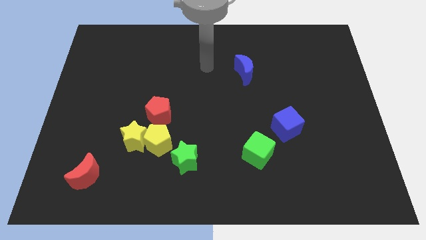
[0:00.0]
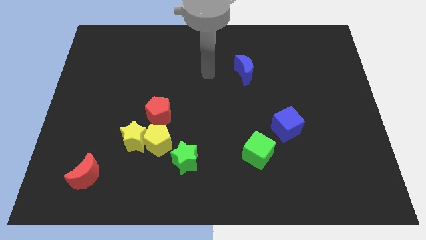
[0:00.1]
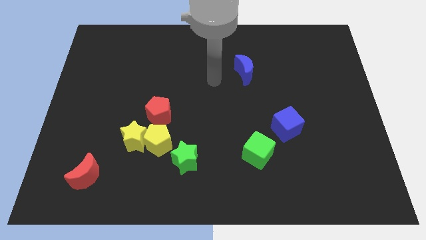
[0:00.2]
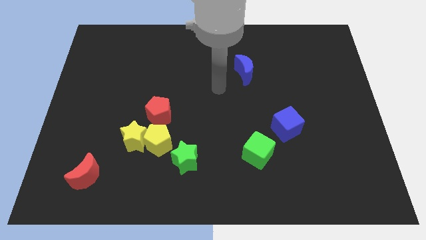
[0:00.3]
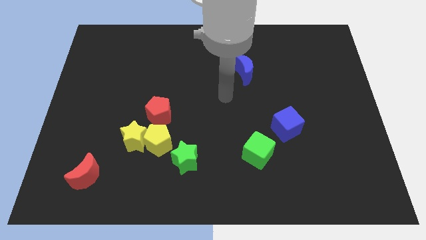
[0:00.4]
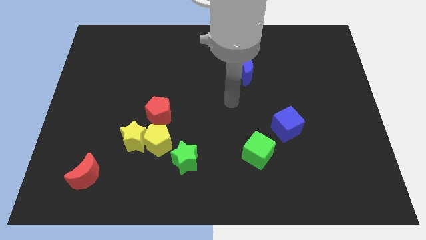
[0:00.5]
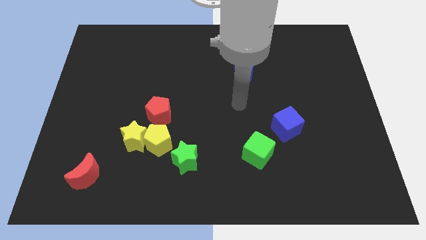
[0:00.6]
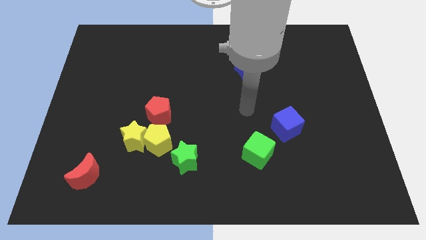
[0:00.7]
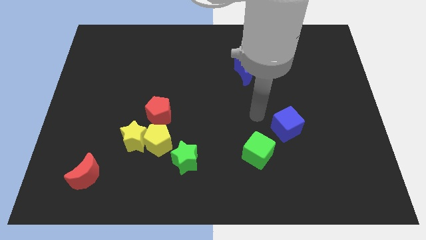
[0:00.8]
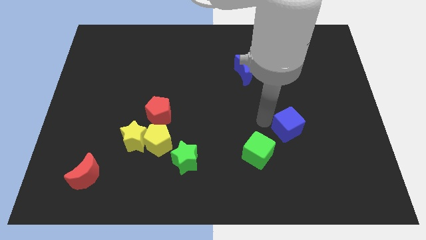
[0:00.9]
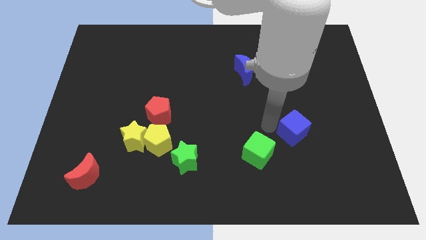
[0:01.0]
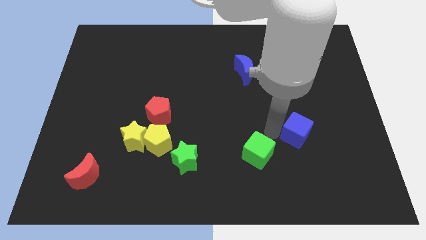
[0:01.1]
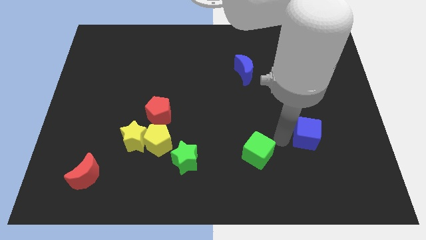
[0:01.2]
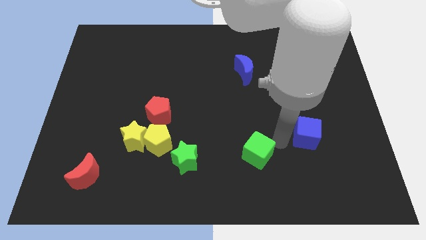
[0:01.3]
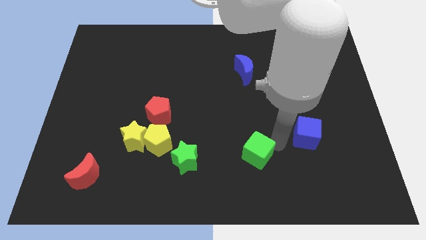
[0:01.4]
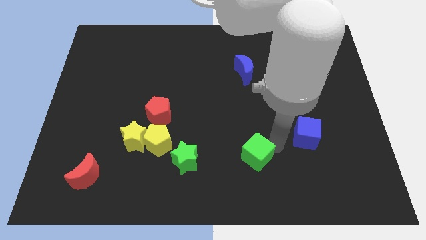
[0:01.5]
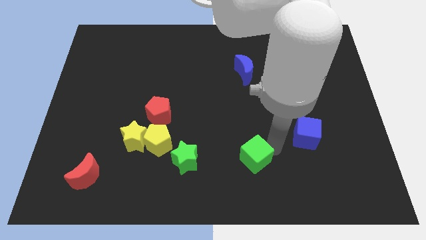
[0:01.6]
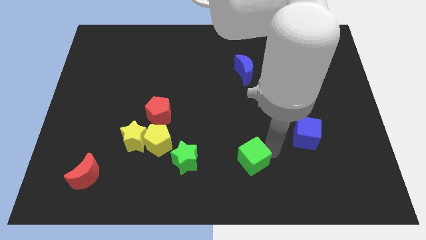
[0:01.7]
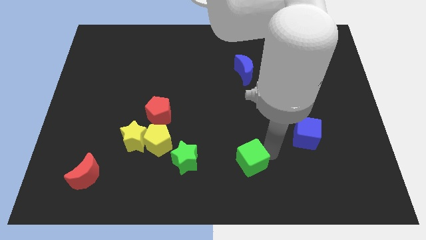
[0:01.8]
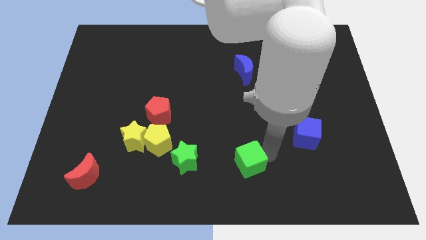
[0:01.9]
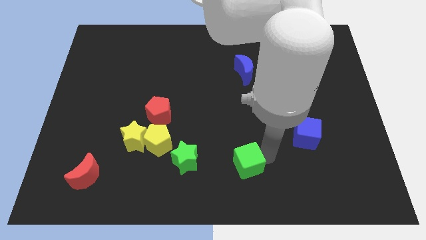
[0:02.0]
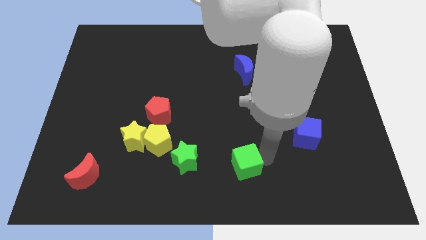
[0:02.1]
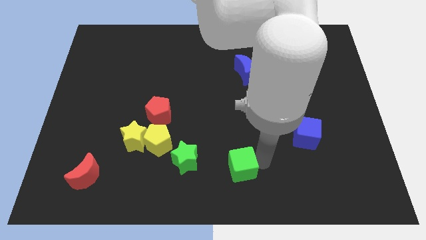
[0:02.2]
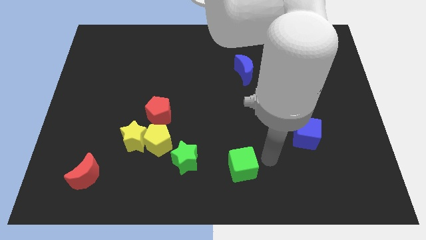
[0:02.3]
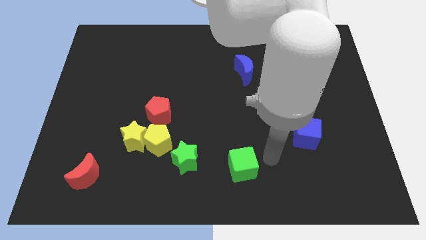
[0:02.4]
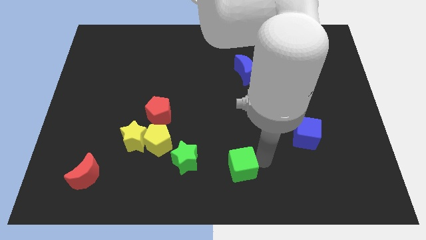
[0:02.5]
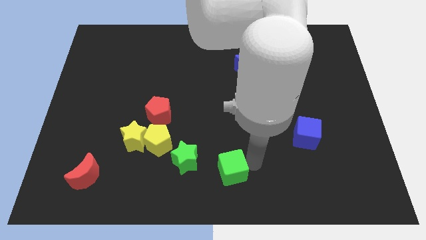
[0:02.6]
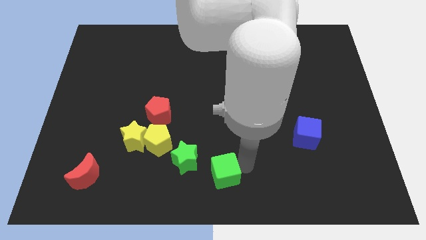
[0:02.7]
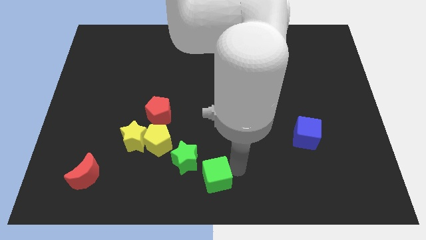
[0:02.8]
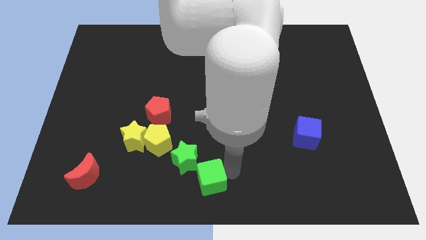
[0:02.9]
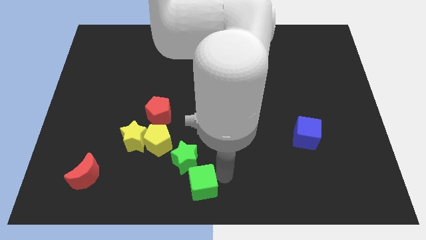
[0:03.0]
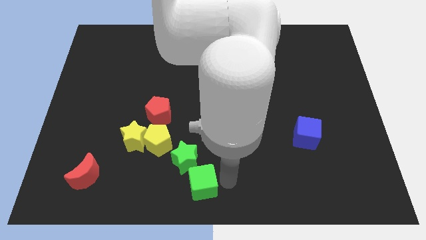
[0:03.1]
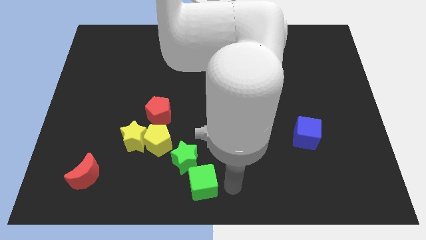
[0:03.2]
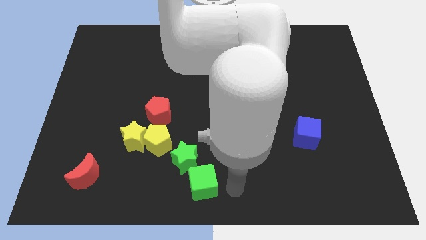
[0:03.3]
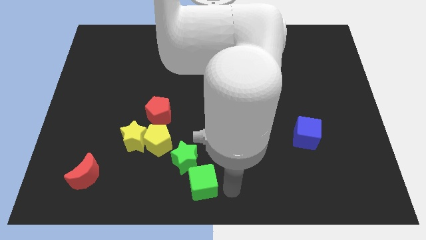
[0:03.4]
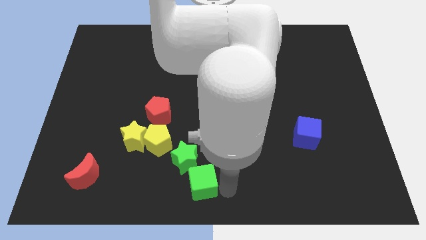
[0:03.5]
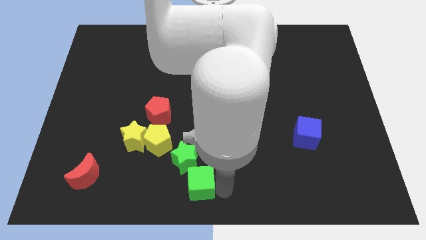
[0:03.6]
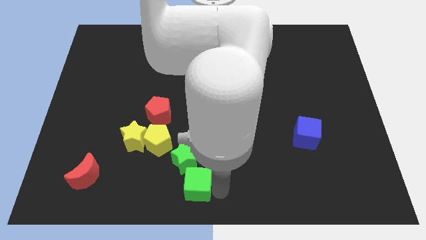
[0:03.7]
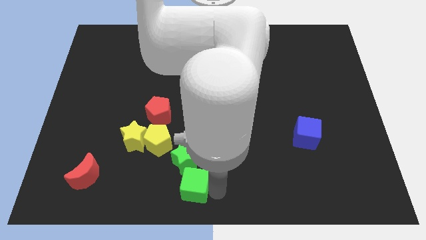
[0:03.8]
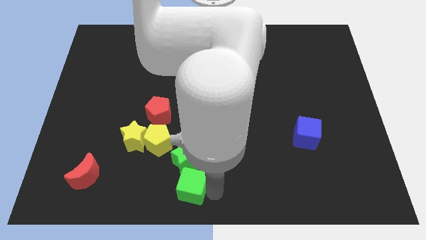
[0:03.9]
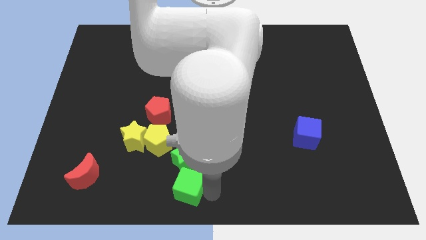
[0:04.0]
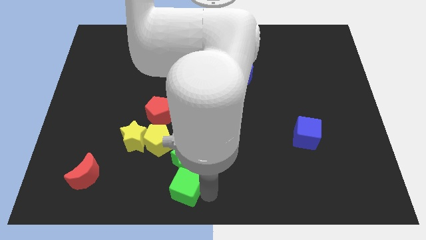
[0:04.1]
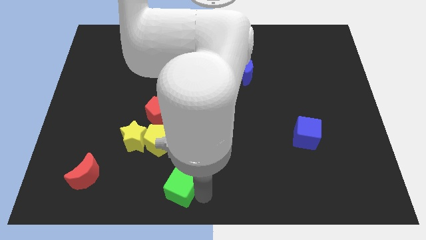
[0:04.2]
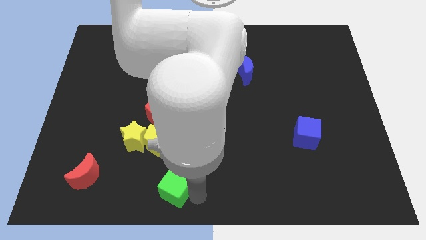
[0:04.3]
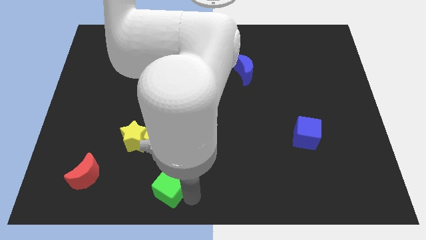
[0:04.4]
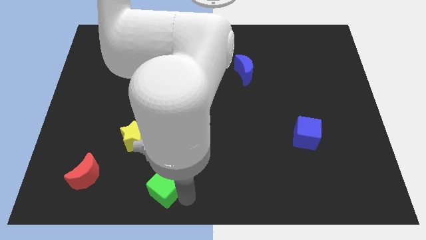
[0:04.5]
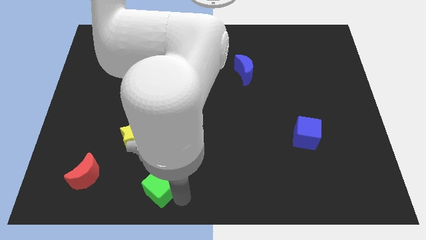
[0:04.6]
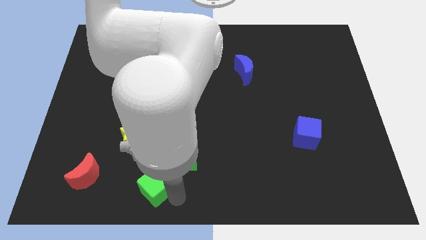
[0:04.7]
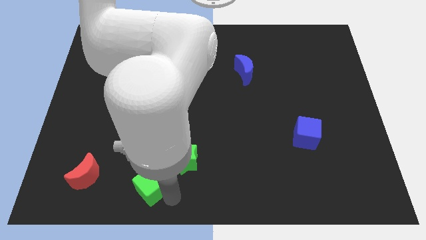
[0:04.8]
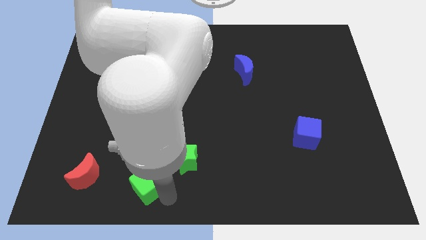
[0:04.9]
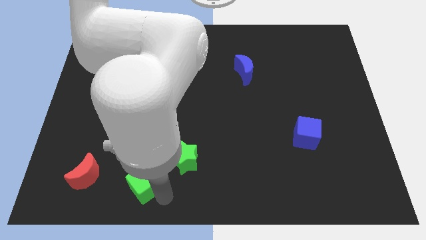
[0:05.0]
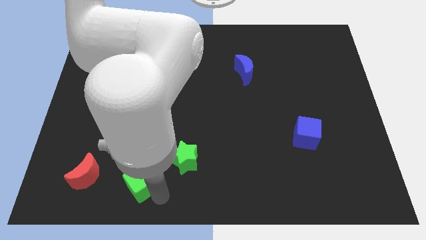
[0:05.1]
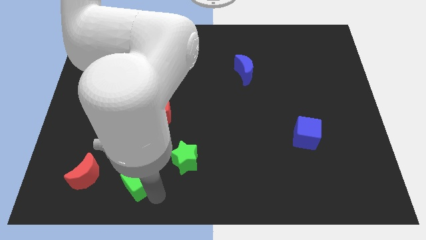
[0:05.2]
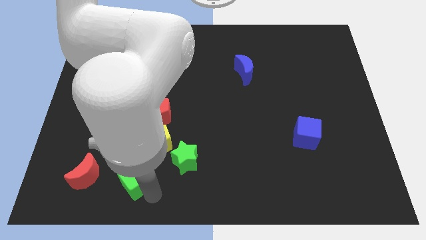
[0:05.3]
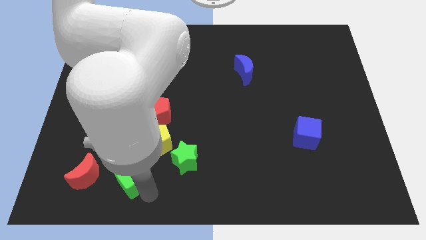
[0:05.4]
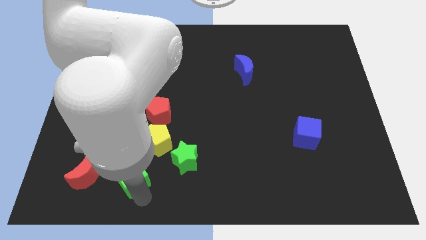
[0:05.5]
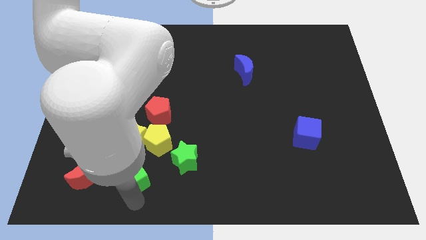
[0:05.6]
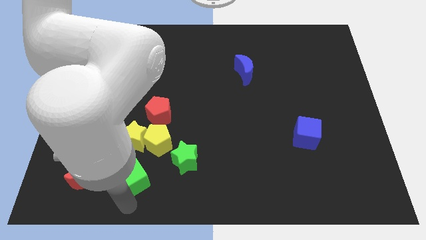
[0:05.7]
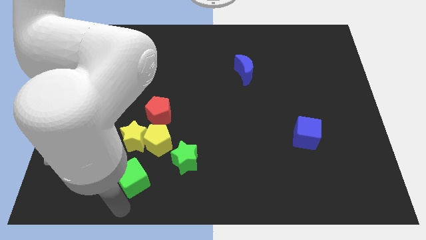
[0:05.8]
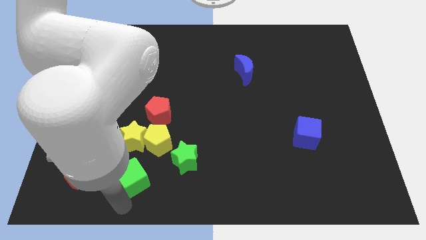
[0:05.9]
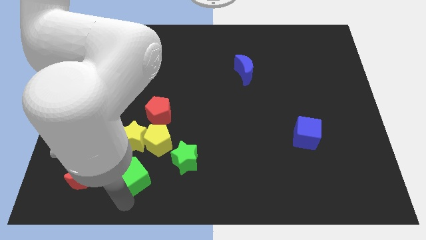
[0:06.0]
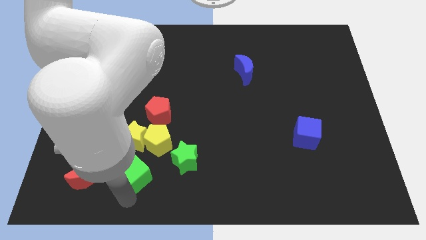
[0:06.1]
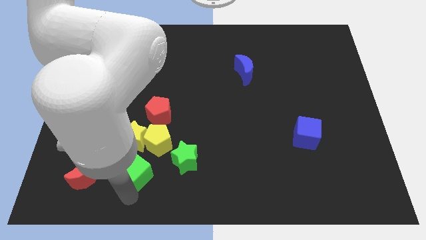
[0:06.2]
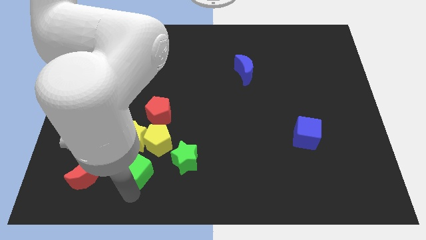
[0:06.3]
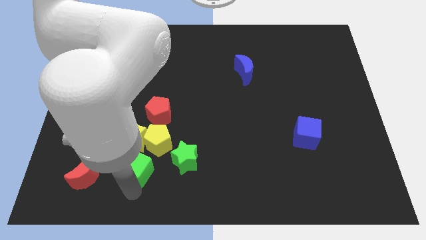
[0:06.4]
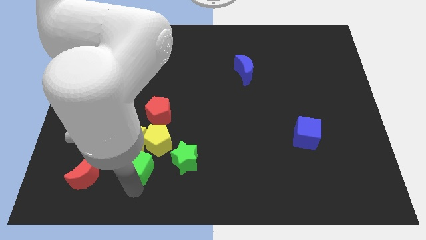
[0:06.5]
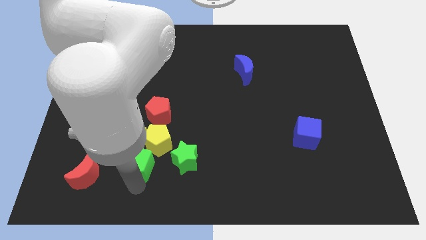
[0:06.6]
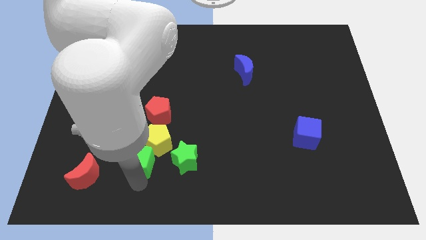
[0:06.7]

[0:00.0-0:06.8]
slide the green cube close to the yellow star
